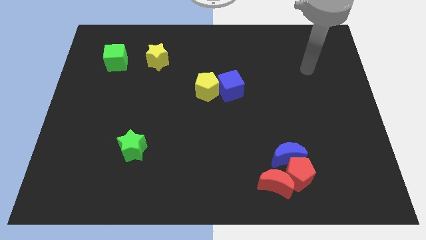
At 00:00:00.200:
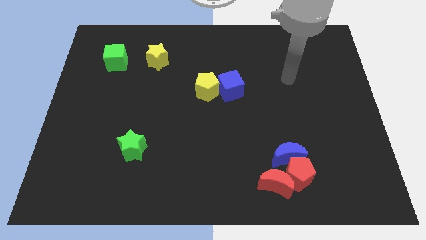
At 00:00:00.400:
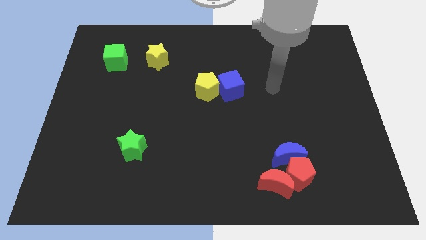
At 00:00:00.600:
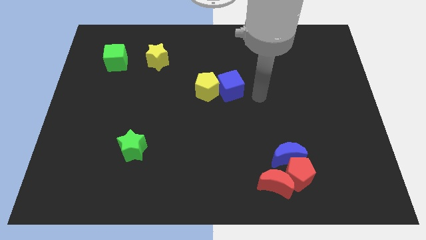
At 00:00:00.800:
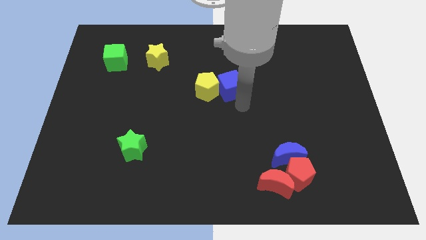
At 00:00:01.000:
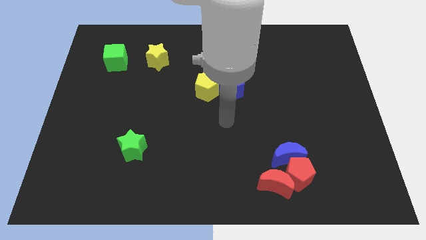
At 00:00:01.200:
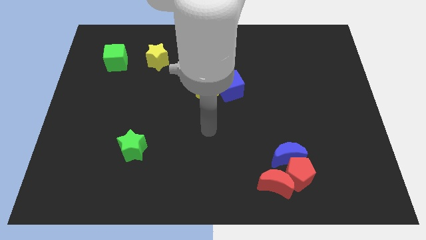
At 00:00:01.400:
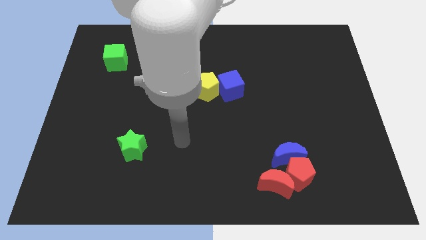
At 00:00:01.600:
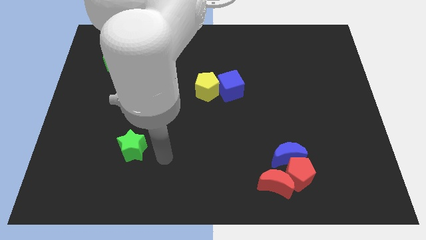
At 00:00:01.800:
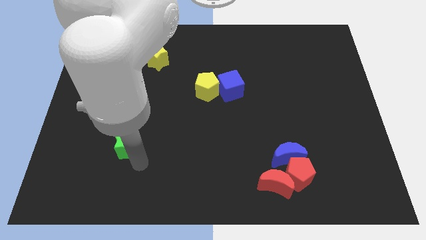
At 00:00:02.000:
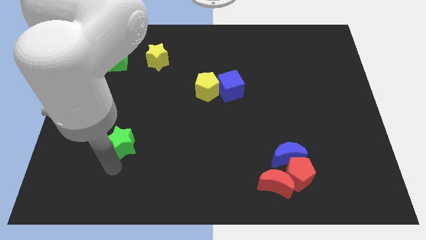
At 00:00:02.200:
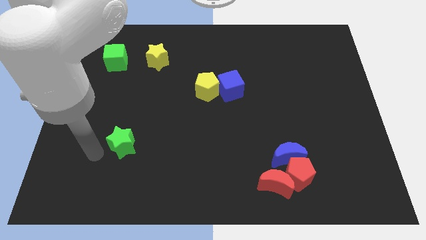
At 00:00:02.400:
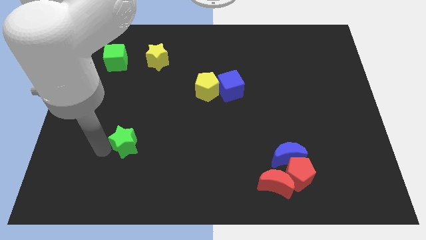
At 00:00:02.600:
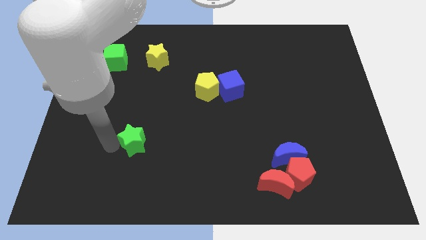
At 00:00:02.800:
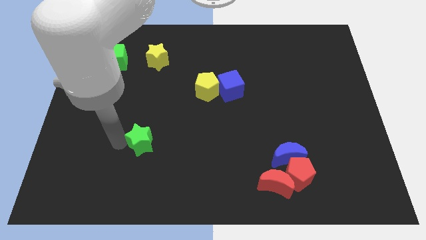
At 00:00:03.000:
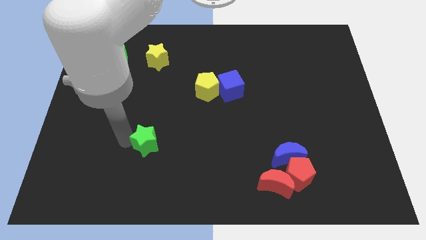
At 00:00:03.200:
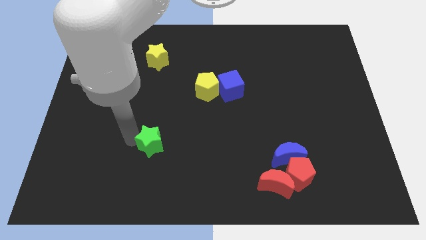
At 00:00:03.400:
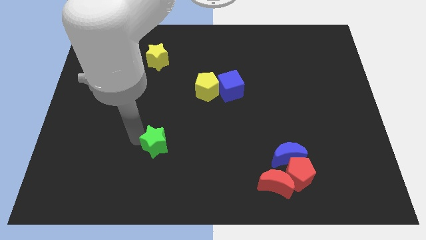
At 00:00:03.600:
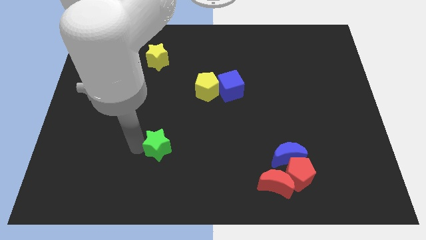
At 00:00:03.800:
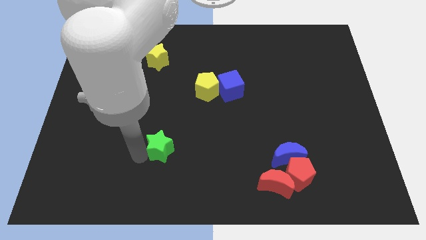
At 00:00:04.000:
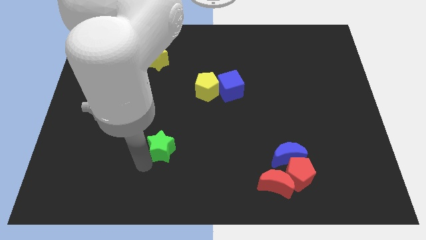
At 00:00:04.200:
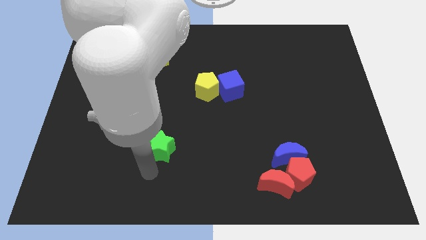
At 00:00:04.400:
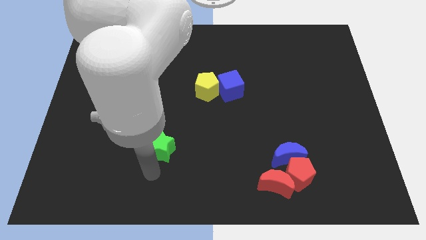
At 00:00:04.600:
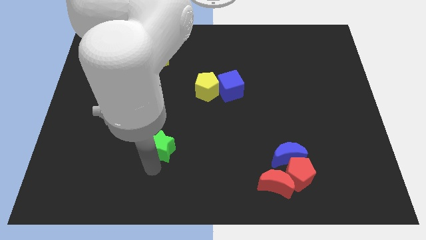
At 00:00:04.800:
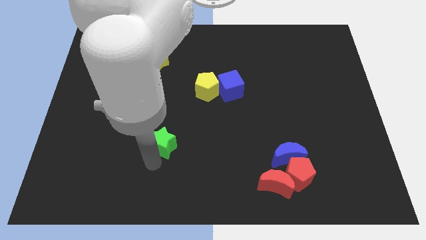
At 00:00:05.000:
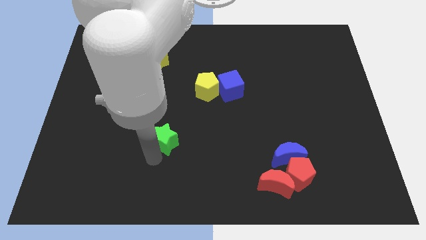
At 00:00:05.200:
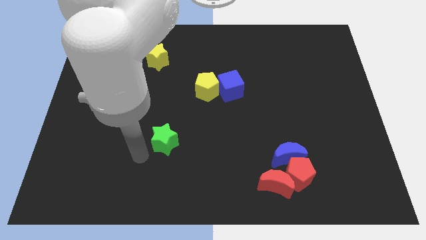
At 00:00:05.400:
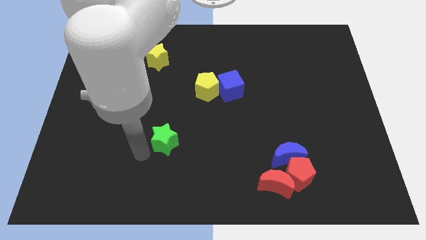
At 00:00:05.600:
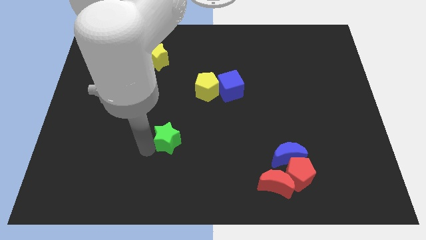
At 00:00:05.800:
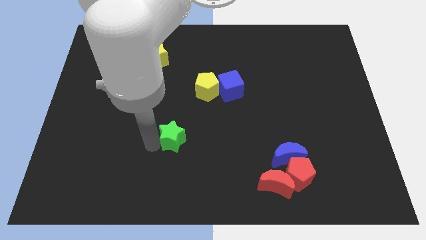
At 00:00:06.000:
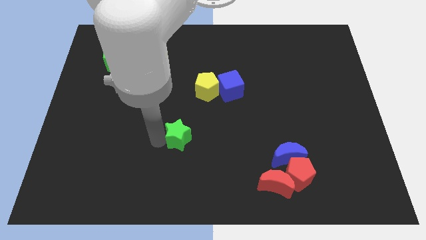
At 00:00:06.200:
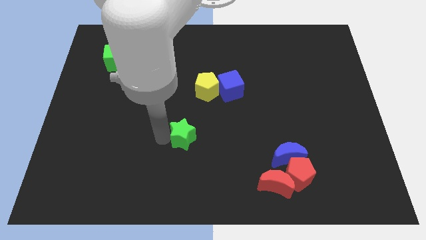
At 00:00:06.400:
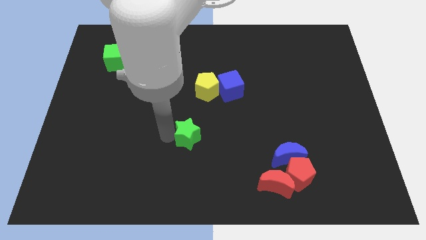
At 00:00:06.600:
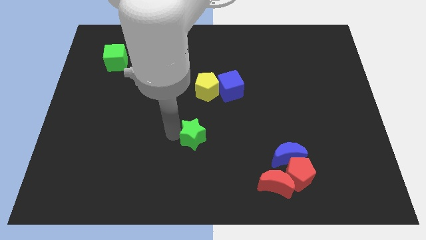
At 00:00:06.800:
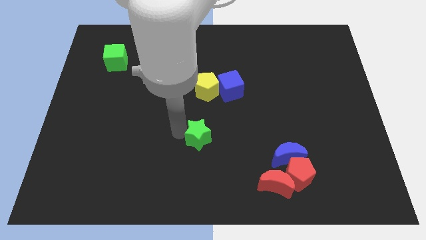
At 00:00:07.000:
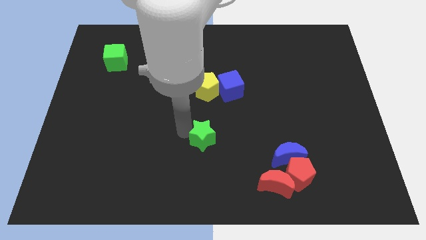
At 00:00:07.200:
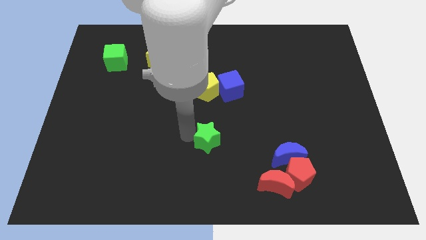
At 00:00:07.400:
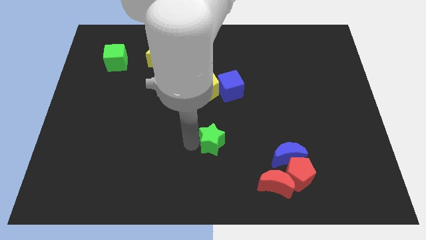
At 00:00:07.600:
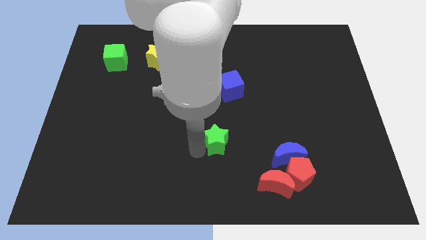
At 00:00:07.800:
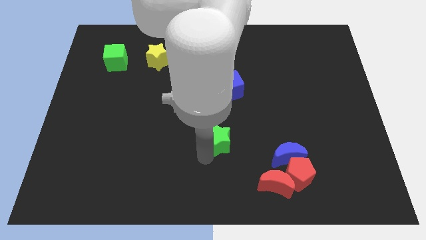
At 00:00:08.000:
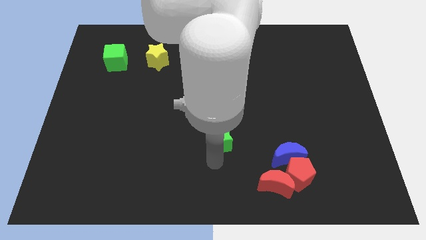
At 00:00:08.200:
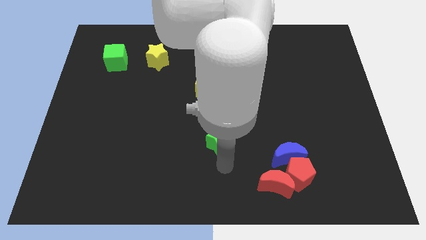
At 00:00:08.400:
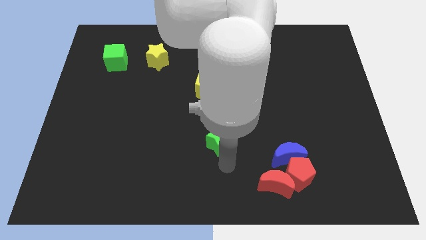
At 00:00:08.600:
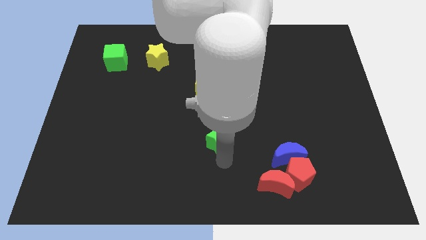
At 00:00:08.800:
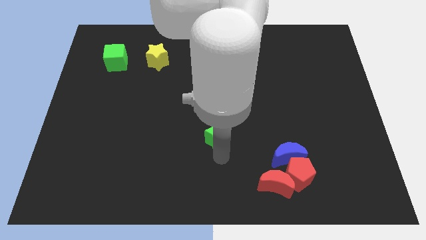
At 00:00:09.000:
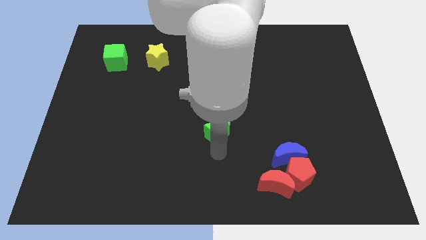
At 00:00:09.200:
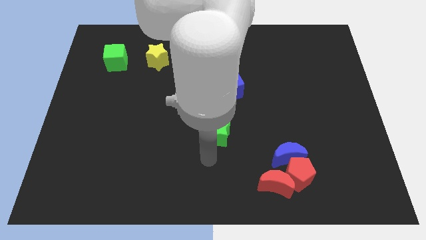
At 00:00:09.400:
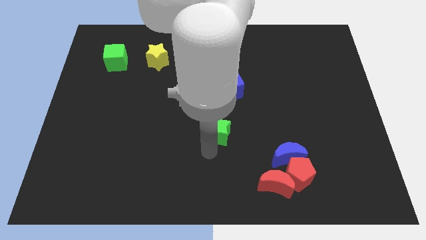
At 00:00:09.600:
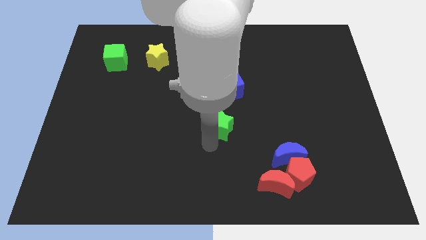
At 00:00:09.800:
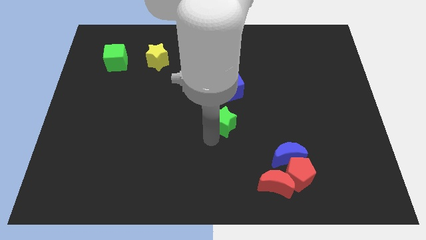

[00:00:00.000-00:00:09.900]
move the green star diagonally down and to the right of the yellow pentagon

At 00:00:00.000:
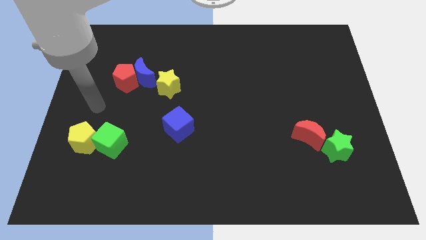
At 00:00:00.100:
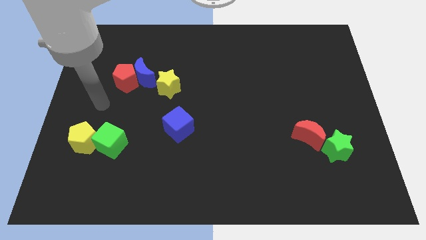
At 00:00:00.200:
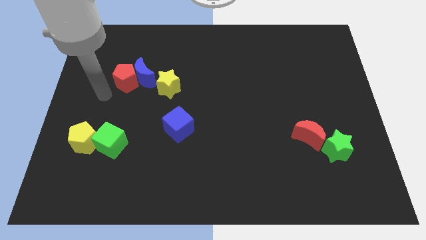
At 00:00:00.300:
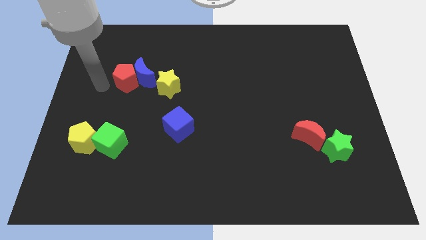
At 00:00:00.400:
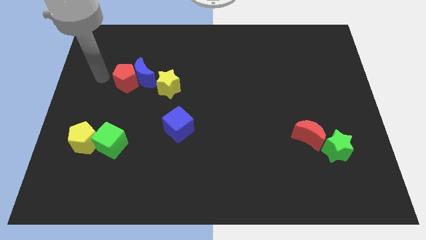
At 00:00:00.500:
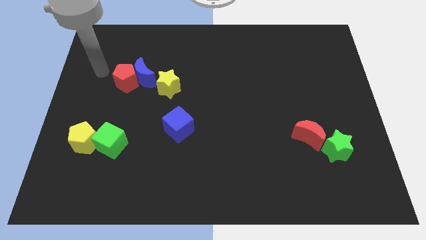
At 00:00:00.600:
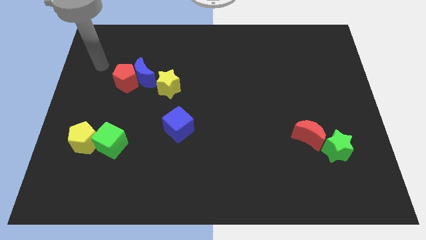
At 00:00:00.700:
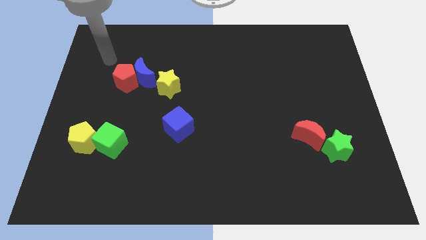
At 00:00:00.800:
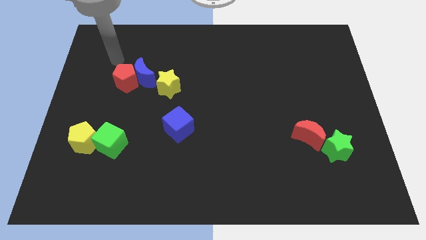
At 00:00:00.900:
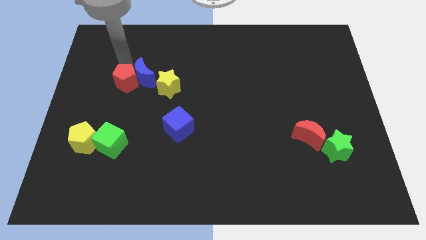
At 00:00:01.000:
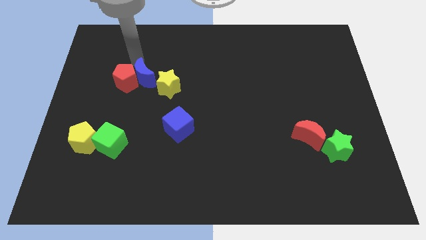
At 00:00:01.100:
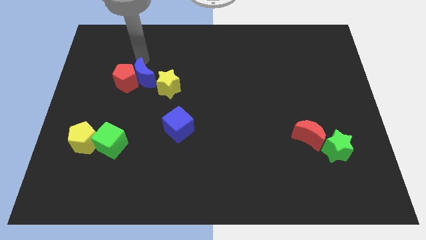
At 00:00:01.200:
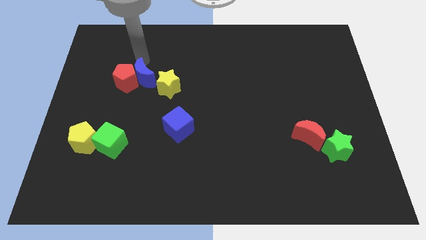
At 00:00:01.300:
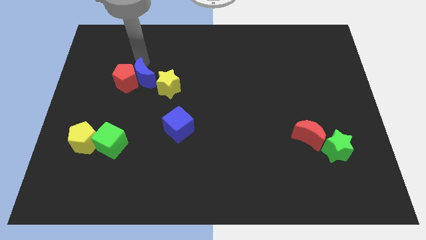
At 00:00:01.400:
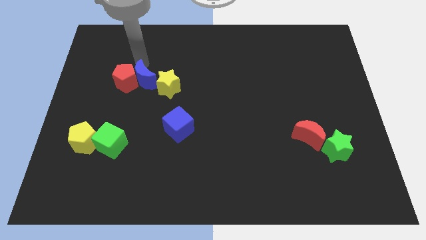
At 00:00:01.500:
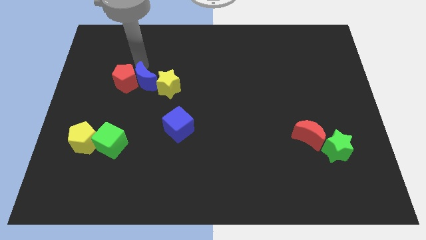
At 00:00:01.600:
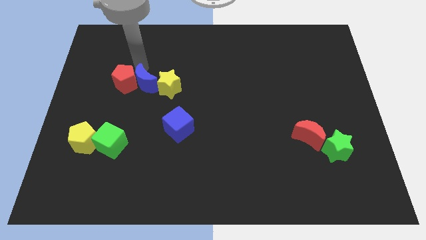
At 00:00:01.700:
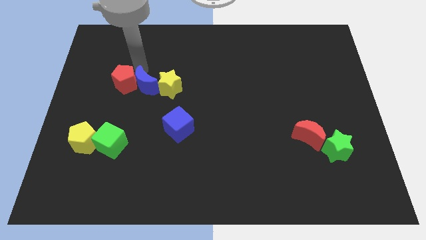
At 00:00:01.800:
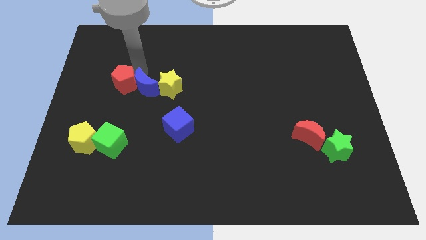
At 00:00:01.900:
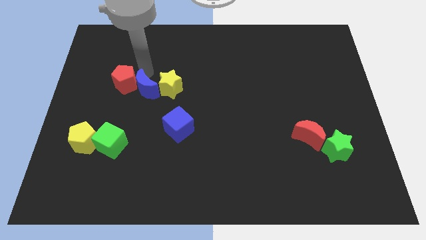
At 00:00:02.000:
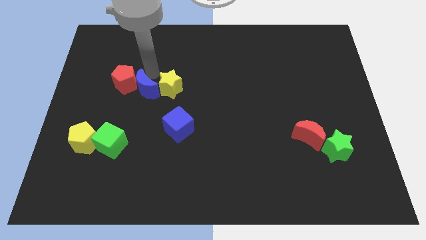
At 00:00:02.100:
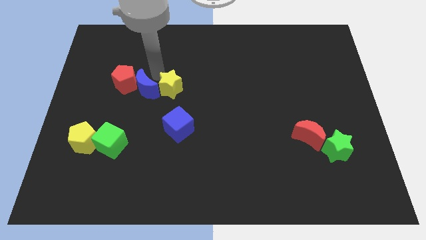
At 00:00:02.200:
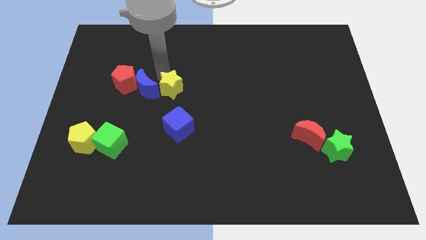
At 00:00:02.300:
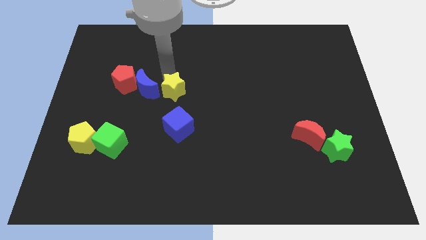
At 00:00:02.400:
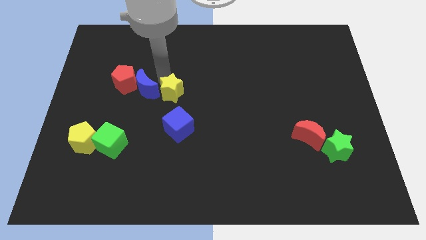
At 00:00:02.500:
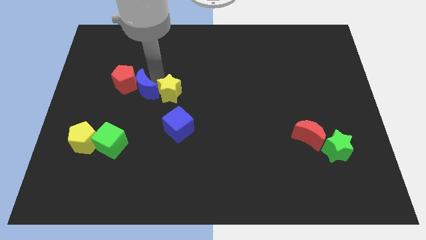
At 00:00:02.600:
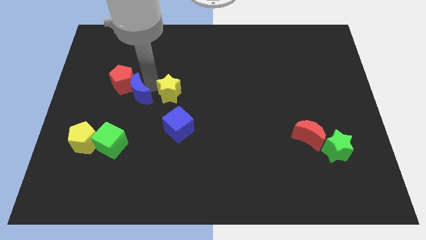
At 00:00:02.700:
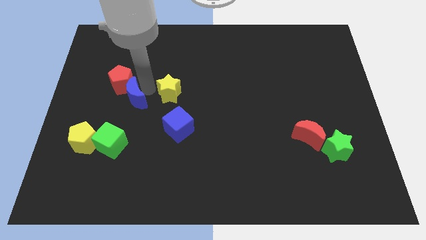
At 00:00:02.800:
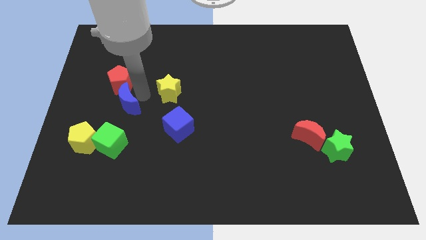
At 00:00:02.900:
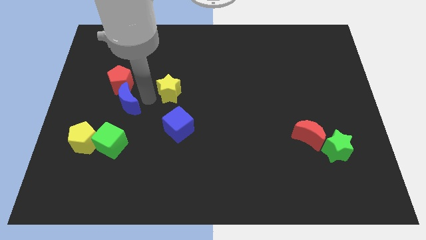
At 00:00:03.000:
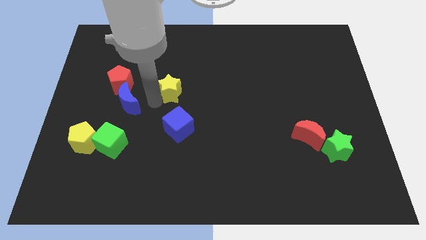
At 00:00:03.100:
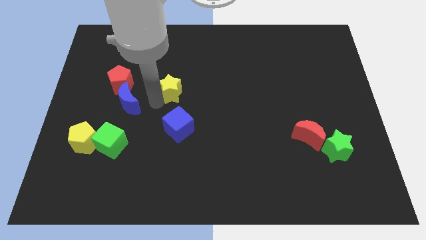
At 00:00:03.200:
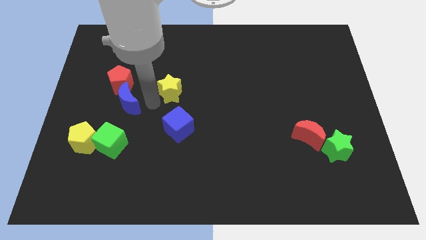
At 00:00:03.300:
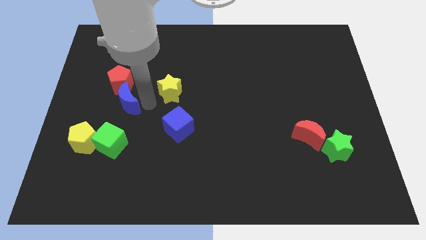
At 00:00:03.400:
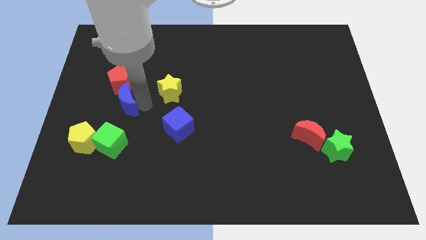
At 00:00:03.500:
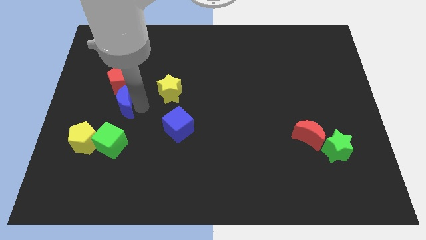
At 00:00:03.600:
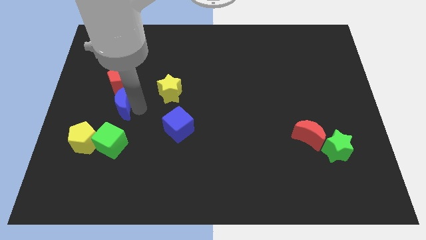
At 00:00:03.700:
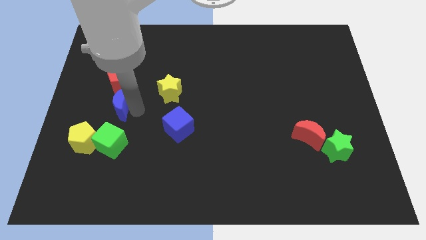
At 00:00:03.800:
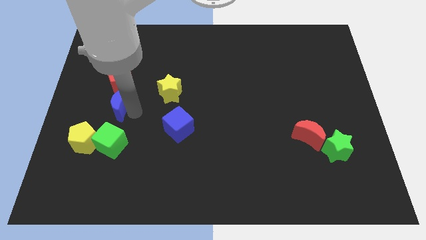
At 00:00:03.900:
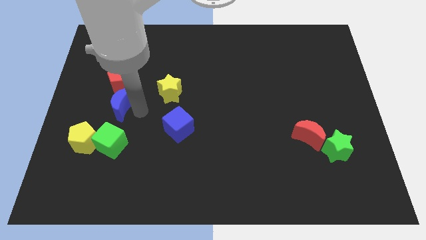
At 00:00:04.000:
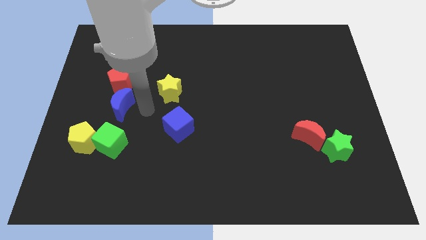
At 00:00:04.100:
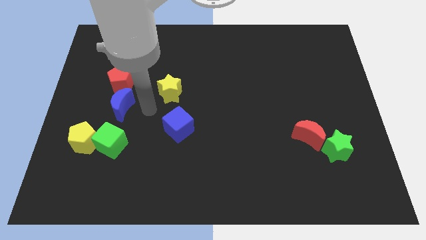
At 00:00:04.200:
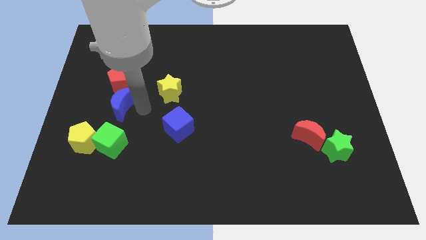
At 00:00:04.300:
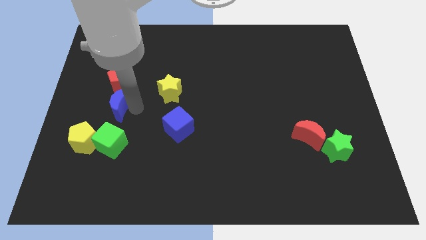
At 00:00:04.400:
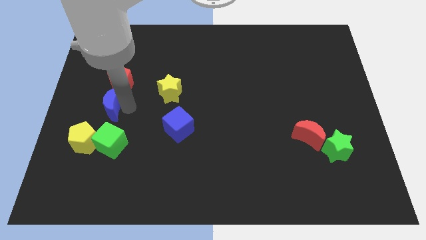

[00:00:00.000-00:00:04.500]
slide the blue moon to the top of the yellow pentagon
